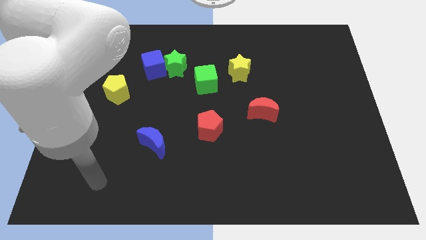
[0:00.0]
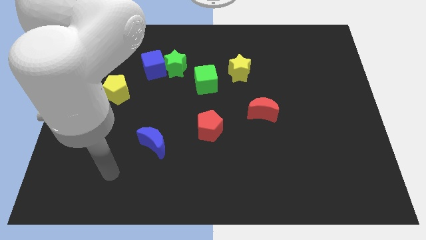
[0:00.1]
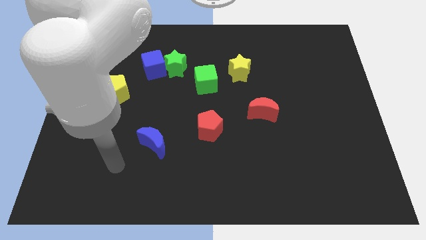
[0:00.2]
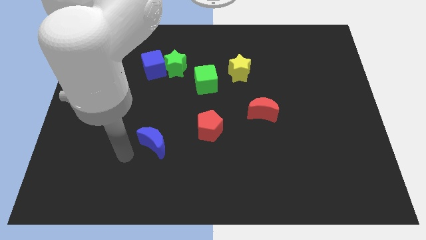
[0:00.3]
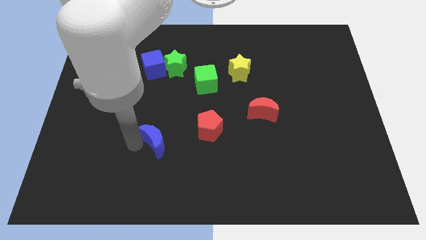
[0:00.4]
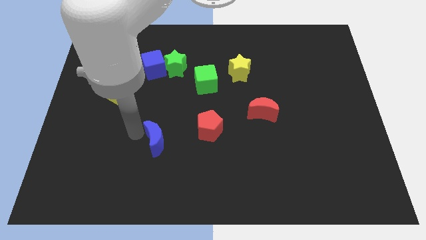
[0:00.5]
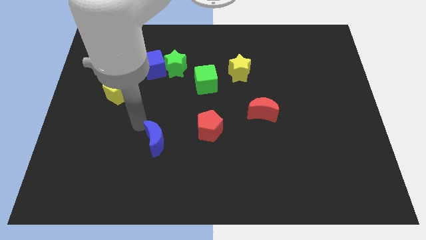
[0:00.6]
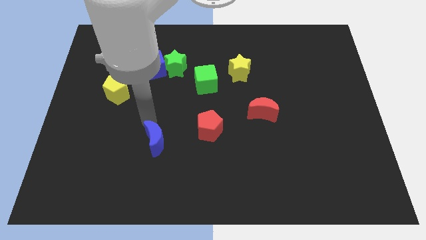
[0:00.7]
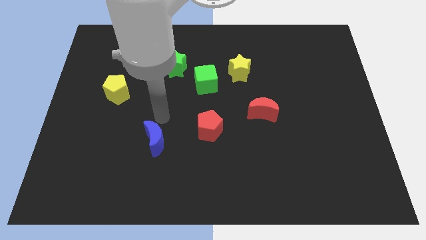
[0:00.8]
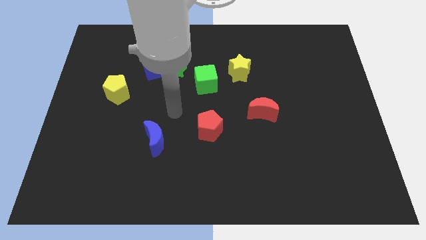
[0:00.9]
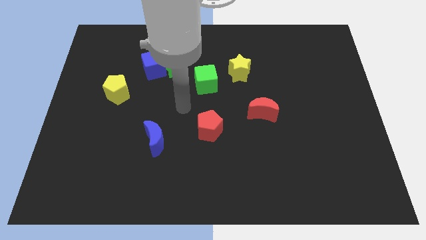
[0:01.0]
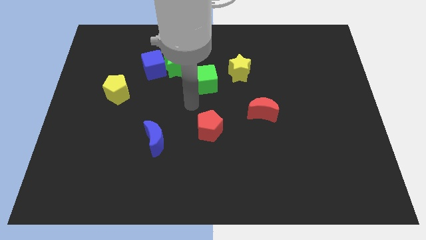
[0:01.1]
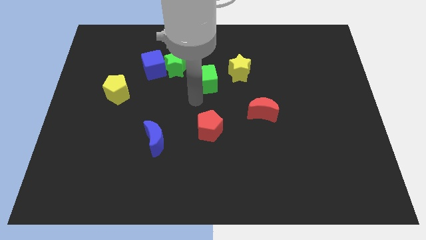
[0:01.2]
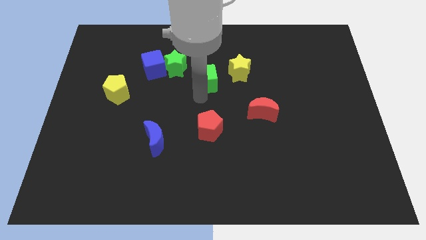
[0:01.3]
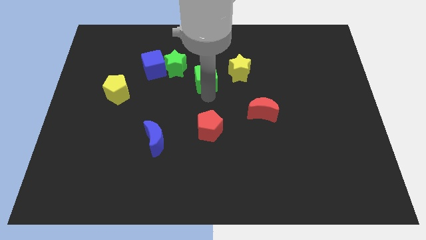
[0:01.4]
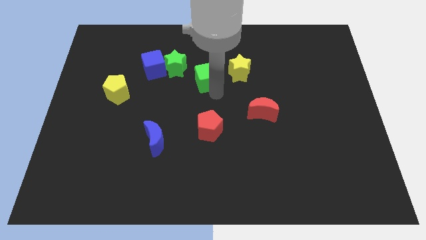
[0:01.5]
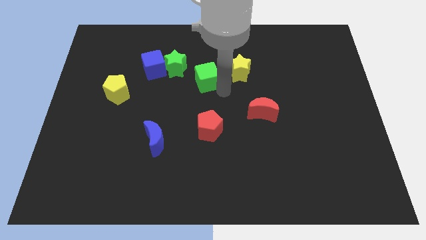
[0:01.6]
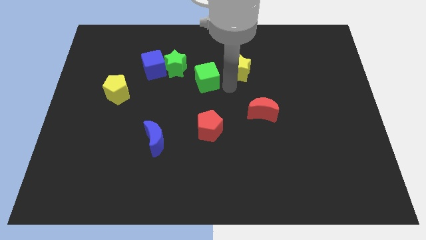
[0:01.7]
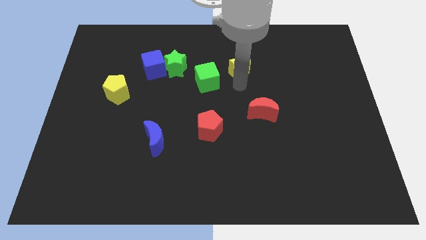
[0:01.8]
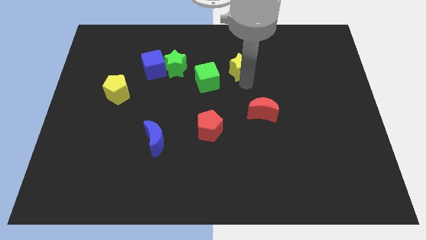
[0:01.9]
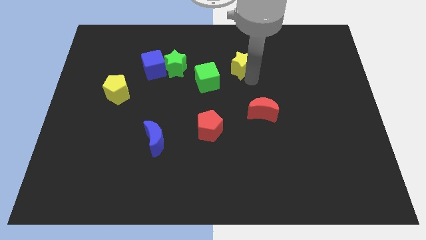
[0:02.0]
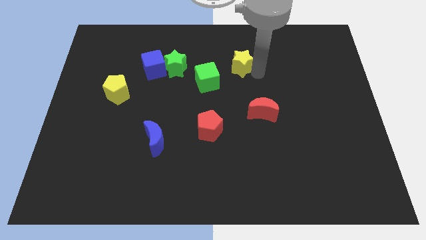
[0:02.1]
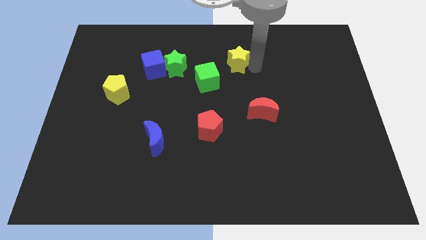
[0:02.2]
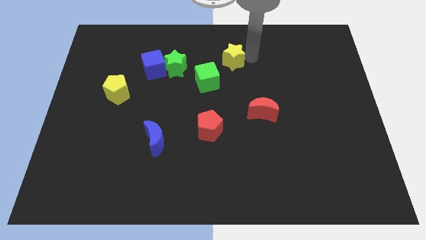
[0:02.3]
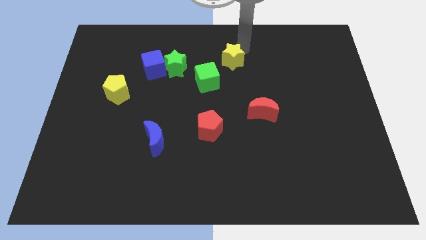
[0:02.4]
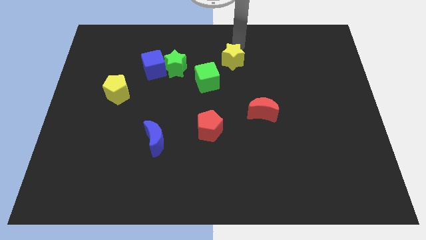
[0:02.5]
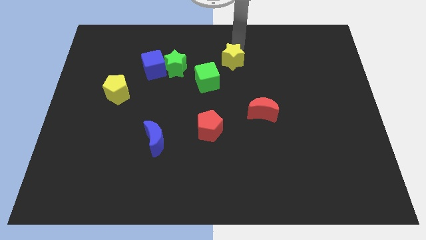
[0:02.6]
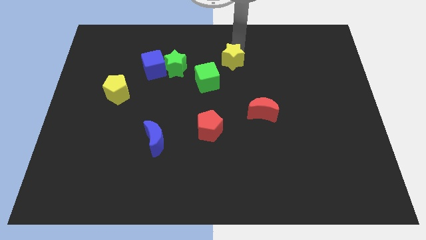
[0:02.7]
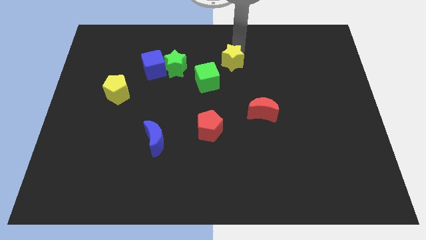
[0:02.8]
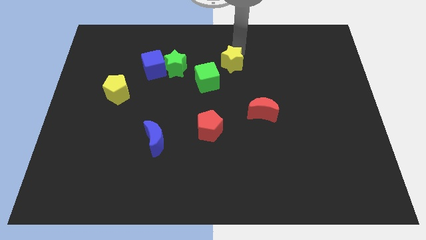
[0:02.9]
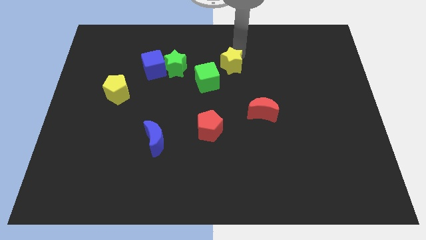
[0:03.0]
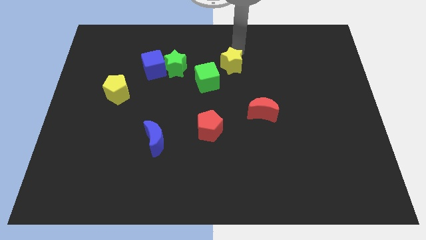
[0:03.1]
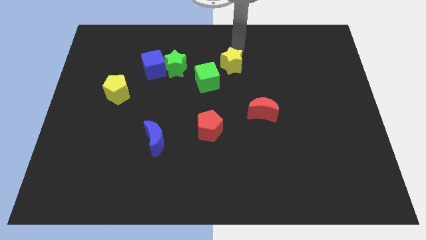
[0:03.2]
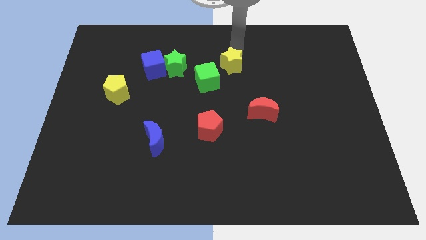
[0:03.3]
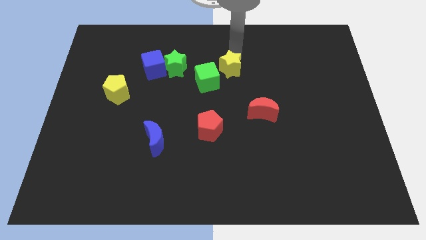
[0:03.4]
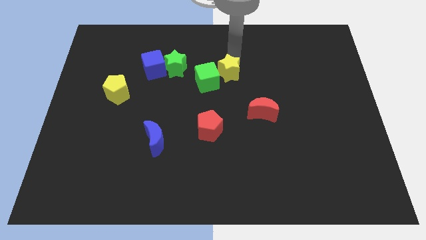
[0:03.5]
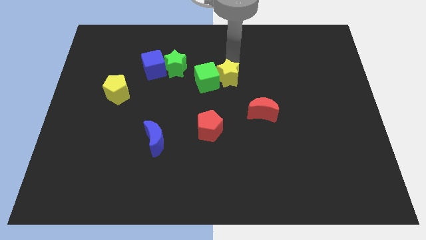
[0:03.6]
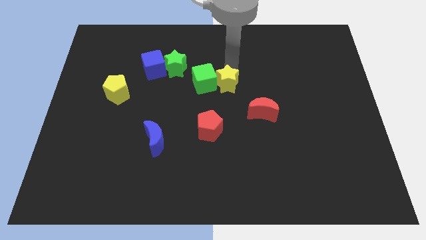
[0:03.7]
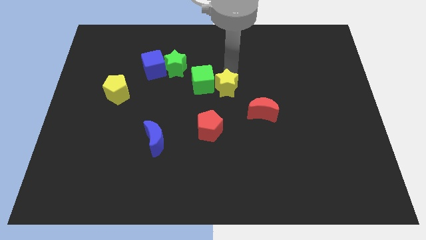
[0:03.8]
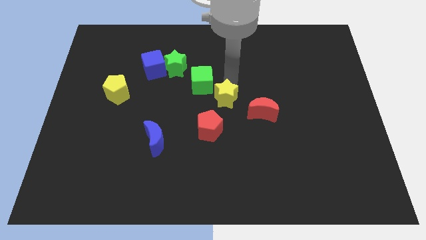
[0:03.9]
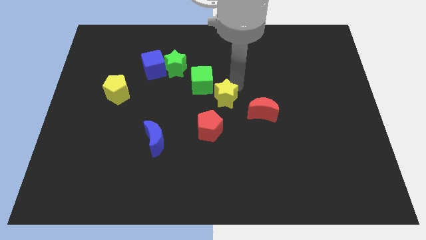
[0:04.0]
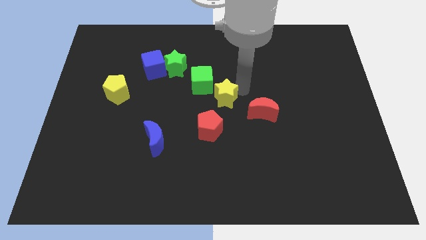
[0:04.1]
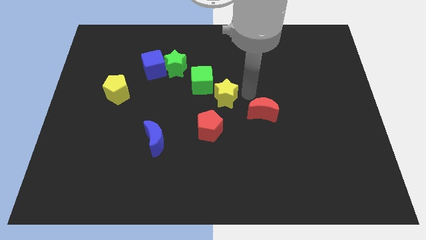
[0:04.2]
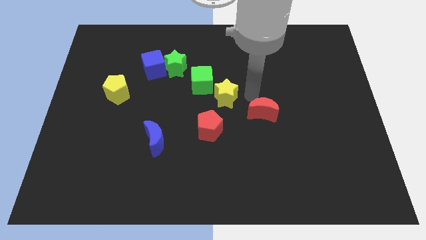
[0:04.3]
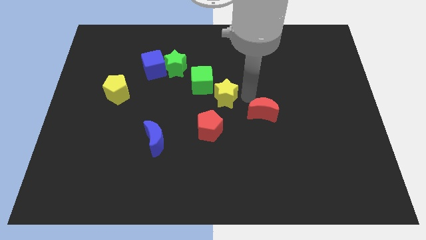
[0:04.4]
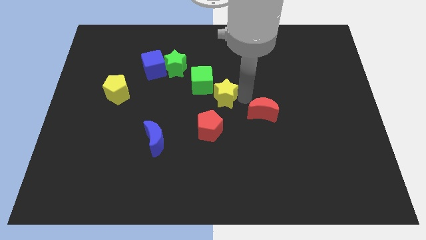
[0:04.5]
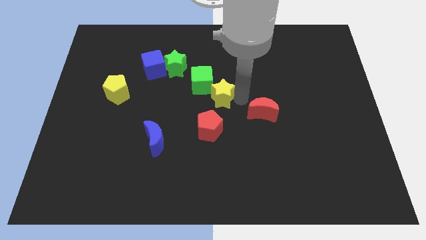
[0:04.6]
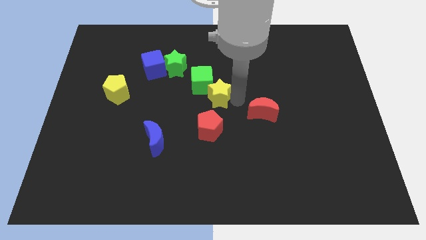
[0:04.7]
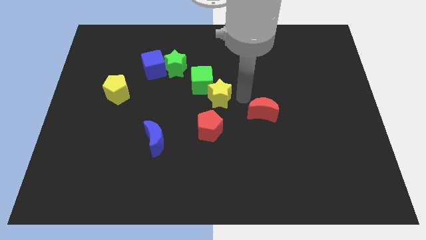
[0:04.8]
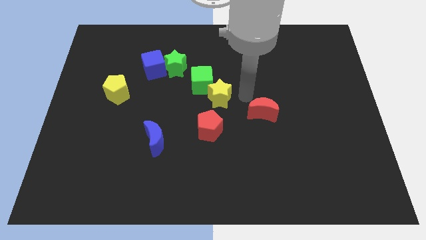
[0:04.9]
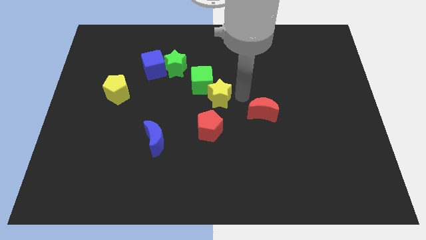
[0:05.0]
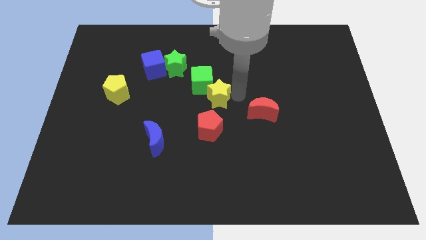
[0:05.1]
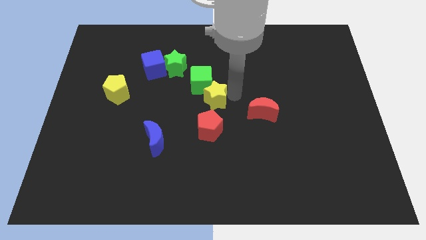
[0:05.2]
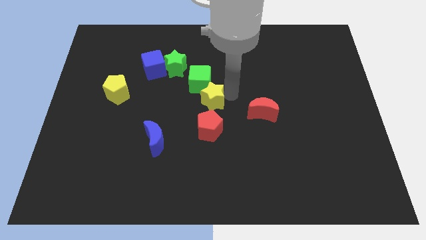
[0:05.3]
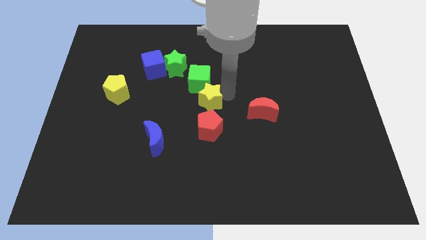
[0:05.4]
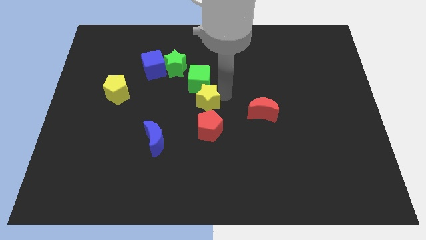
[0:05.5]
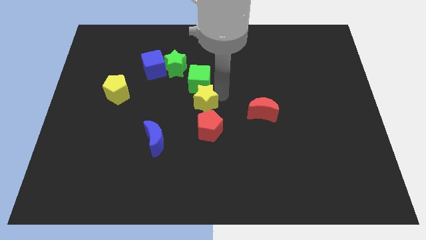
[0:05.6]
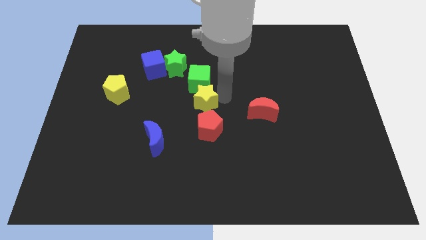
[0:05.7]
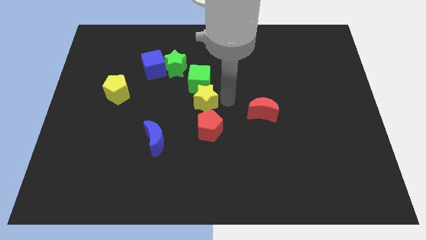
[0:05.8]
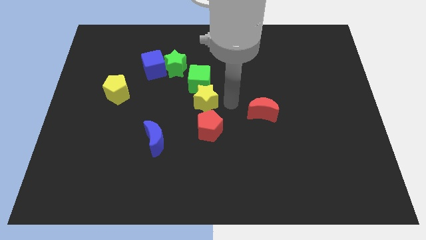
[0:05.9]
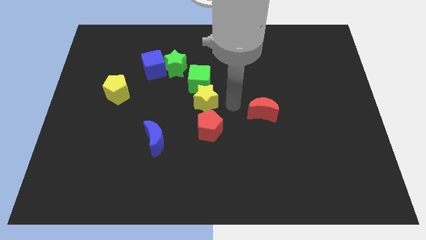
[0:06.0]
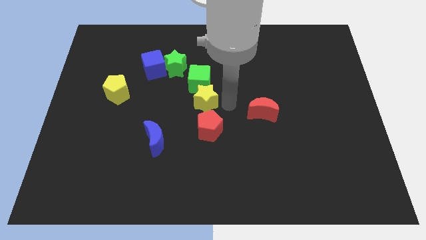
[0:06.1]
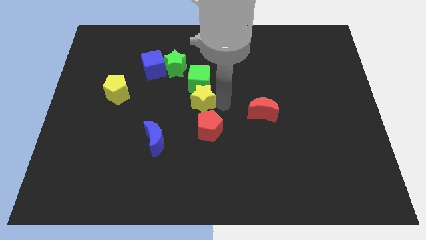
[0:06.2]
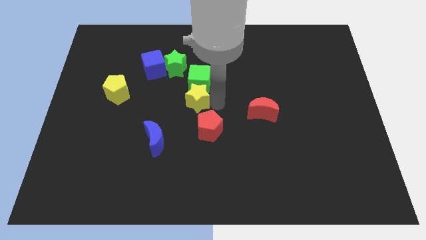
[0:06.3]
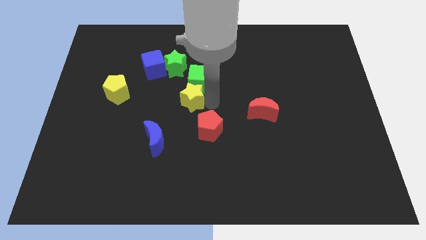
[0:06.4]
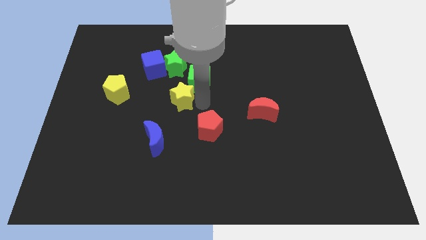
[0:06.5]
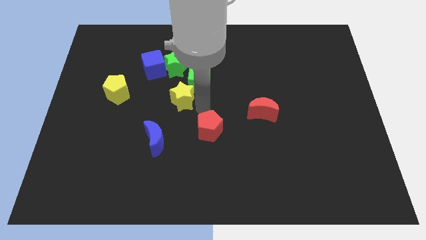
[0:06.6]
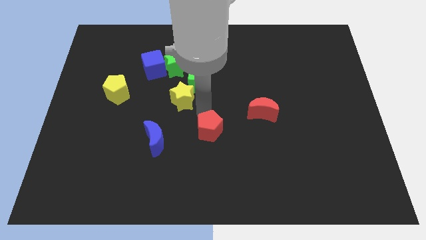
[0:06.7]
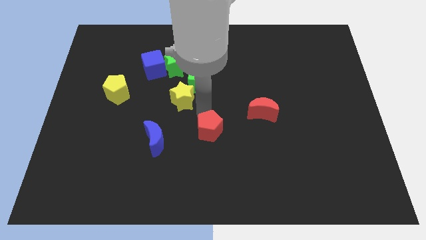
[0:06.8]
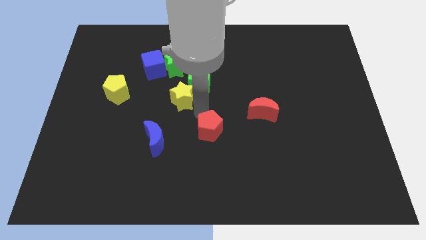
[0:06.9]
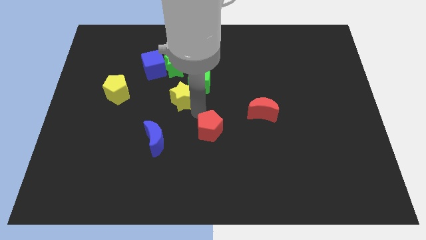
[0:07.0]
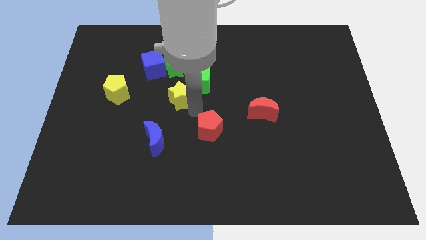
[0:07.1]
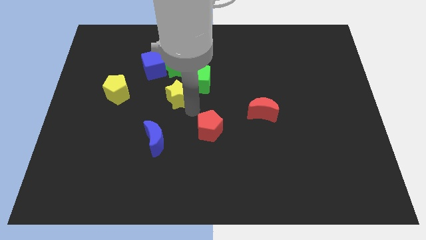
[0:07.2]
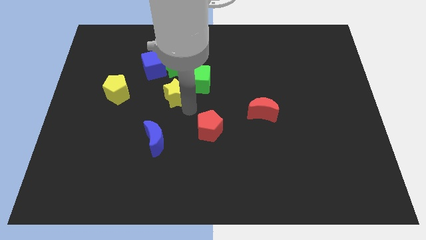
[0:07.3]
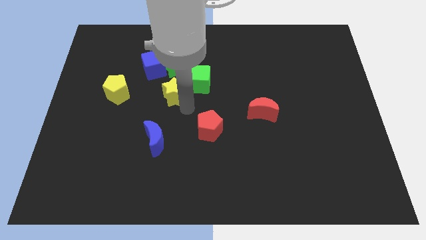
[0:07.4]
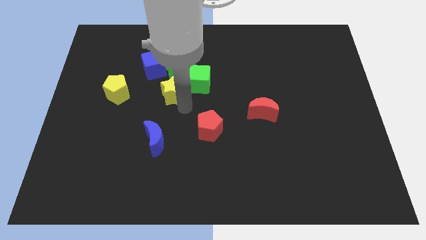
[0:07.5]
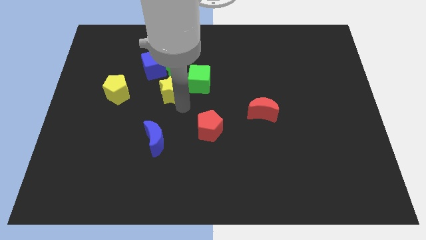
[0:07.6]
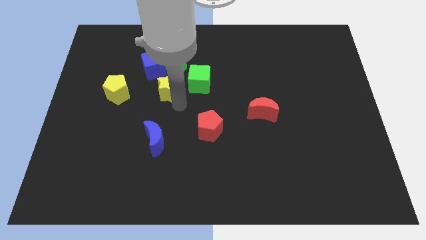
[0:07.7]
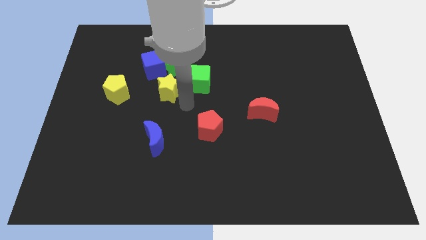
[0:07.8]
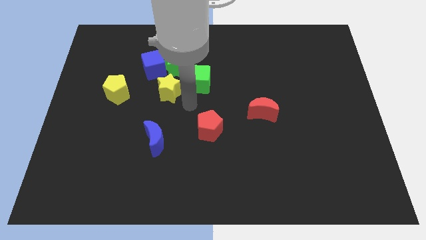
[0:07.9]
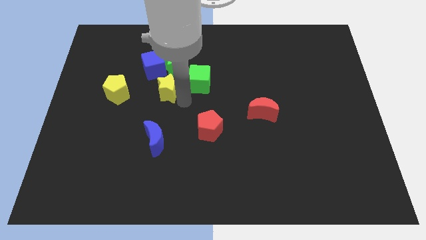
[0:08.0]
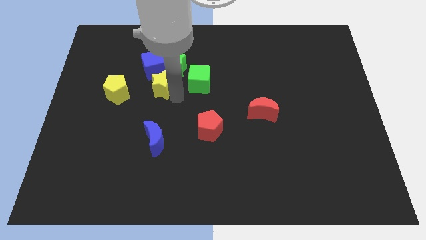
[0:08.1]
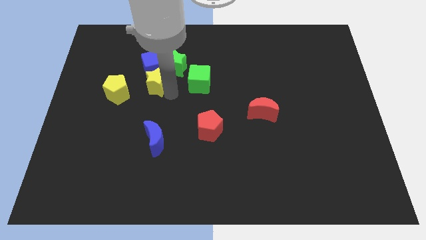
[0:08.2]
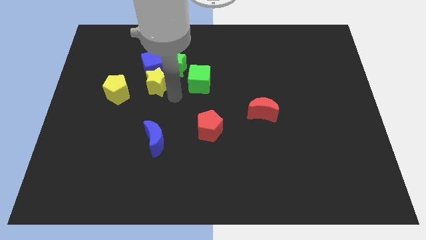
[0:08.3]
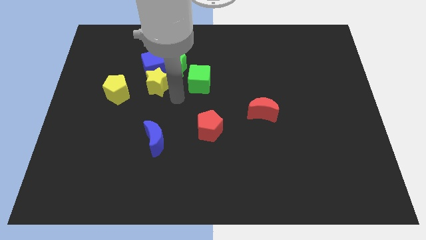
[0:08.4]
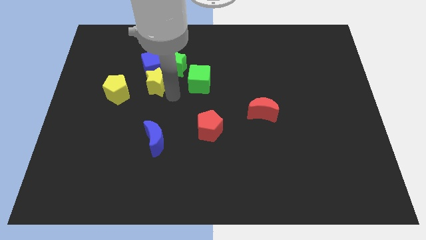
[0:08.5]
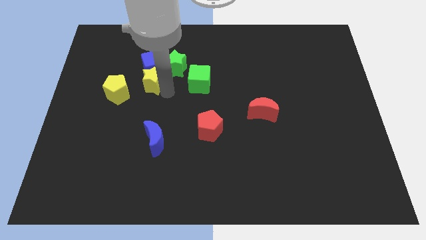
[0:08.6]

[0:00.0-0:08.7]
slide the yellow star to the top right of the yellow pentagon
